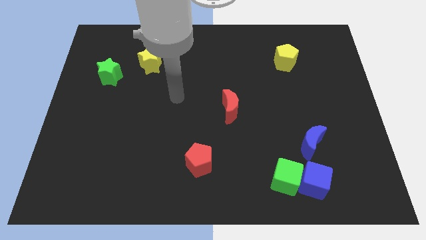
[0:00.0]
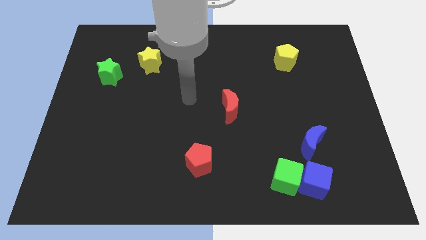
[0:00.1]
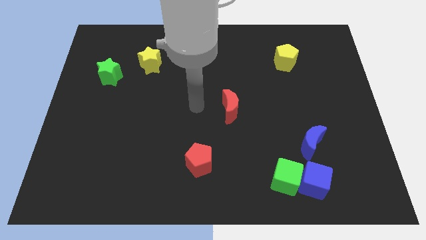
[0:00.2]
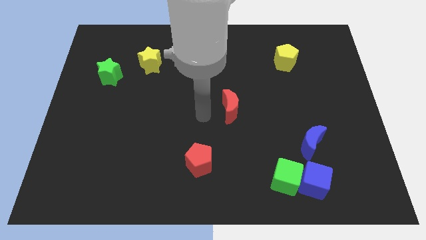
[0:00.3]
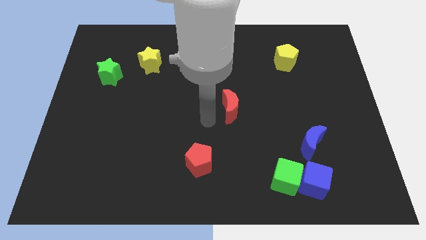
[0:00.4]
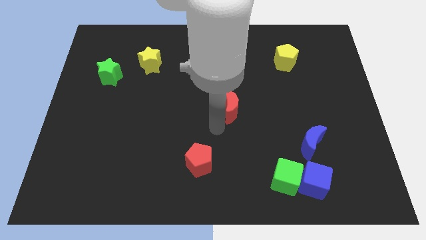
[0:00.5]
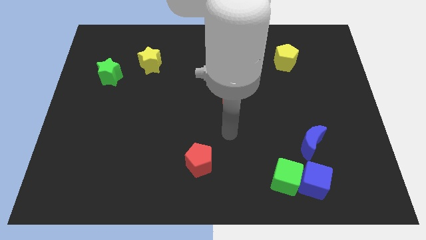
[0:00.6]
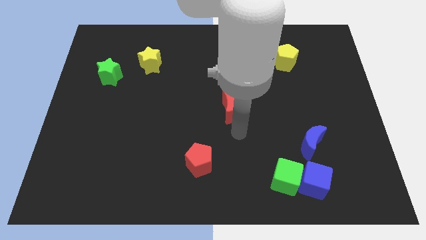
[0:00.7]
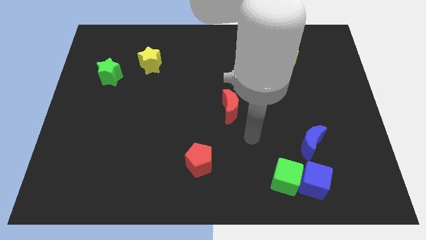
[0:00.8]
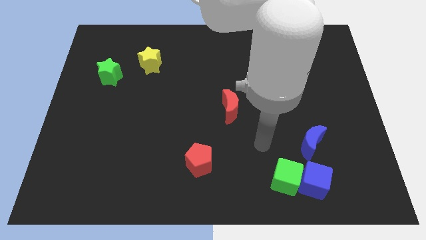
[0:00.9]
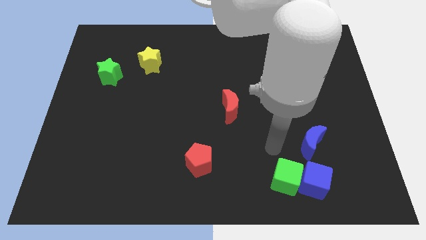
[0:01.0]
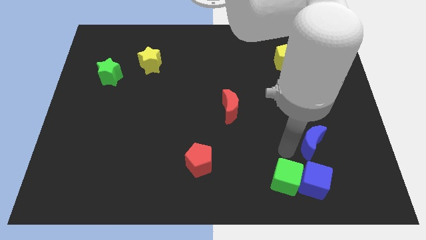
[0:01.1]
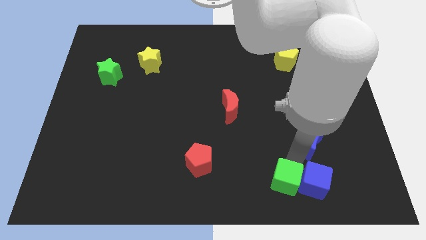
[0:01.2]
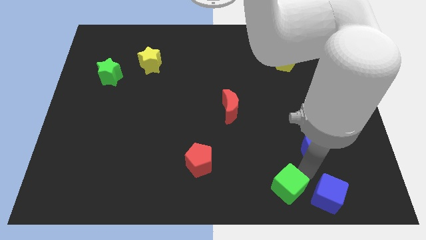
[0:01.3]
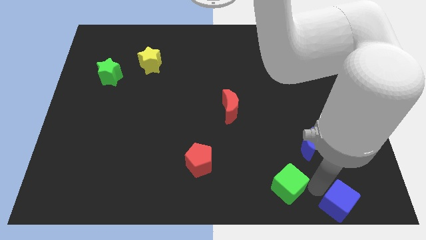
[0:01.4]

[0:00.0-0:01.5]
pull the green cube apart from the blue cube

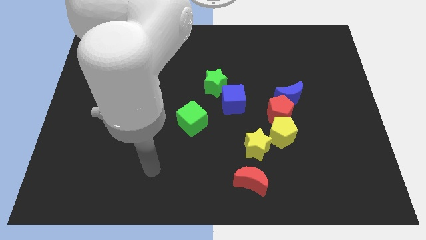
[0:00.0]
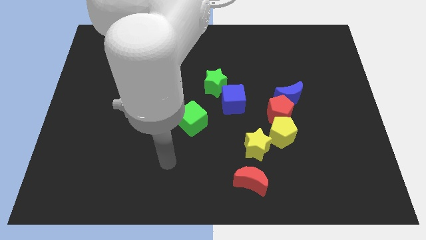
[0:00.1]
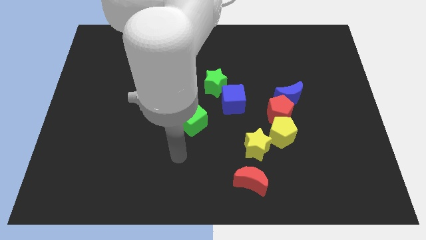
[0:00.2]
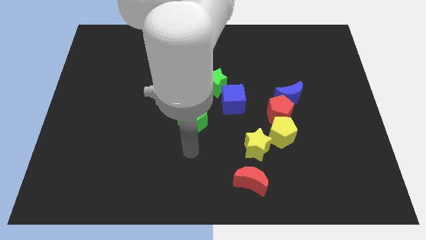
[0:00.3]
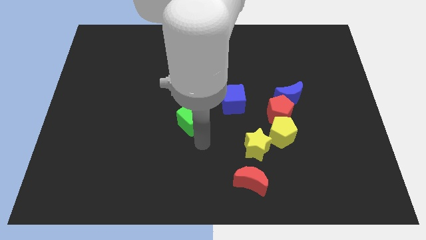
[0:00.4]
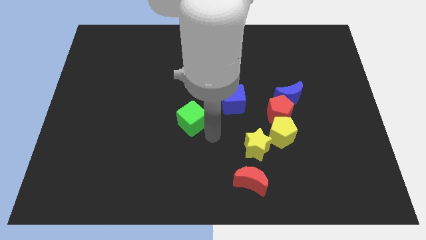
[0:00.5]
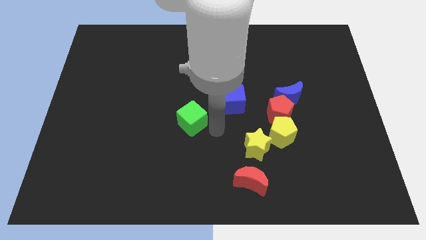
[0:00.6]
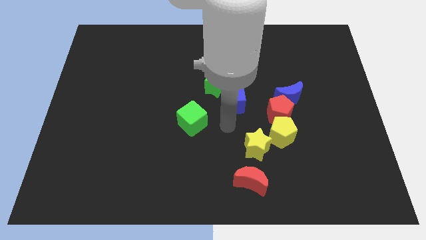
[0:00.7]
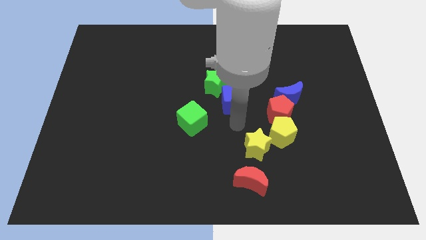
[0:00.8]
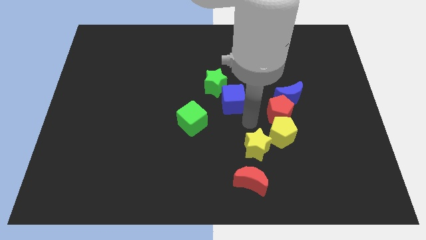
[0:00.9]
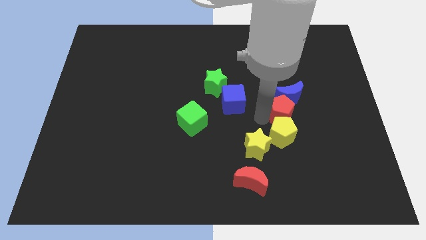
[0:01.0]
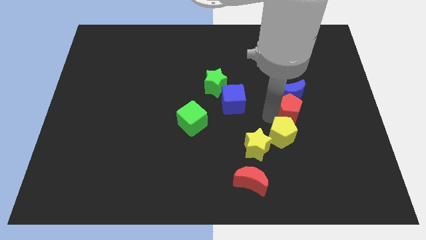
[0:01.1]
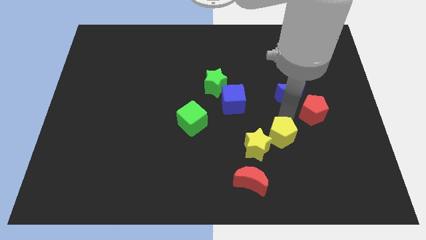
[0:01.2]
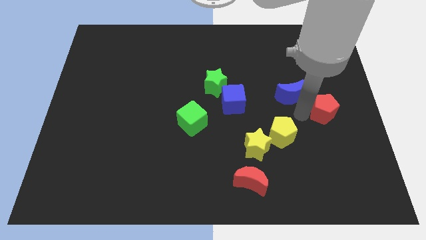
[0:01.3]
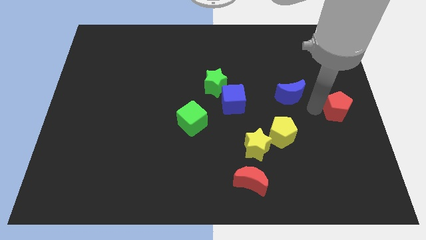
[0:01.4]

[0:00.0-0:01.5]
move the blue moon away from the red pentagon

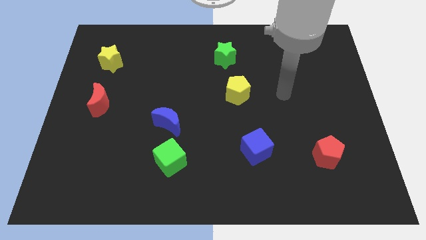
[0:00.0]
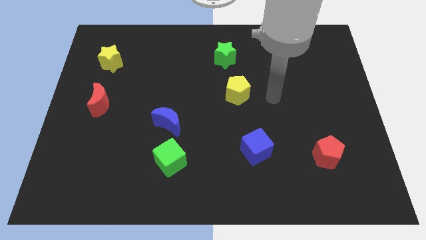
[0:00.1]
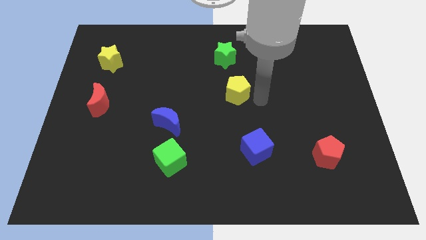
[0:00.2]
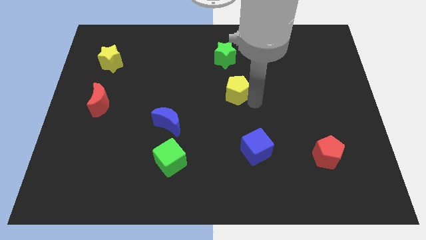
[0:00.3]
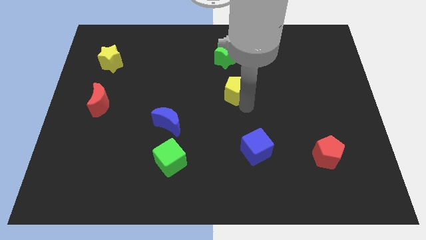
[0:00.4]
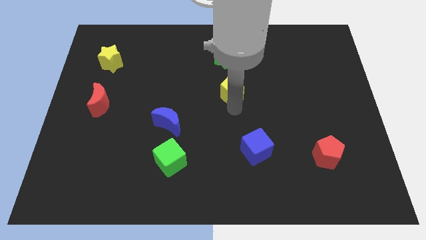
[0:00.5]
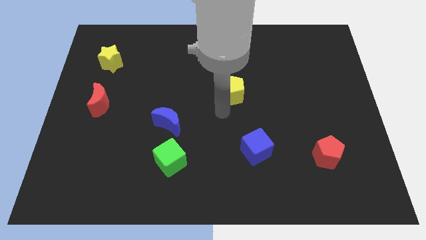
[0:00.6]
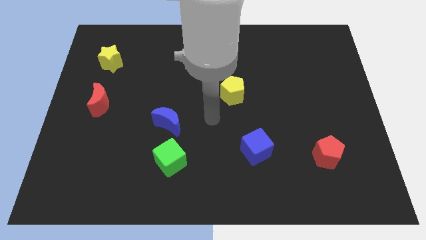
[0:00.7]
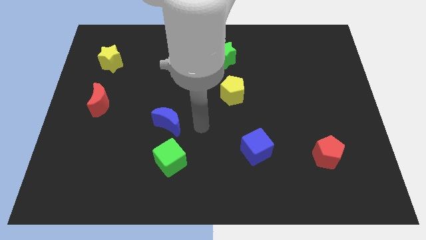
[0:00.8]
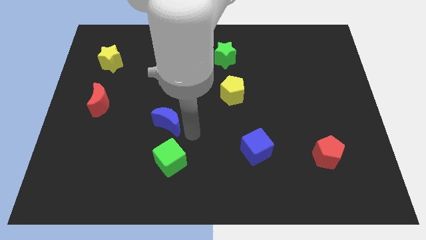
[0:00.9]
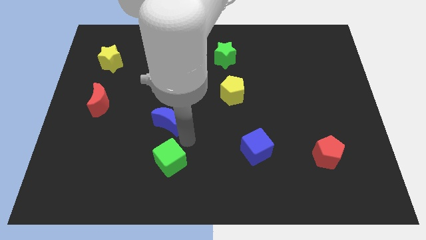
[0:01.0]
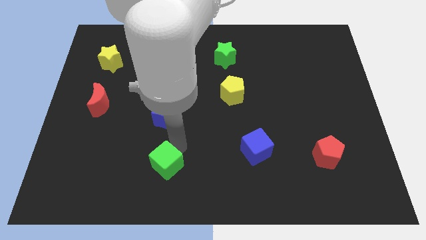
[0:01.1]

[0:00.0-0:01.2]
move the blue moon away from the green cube

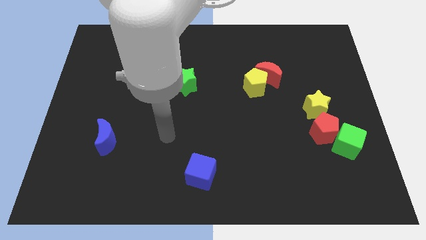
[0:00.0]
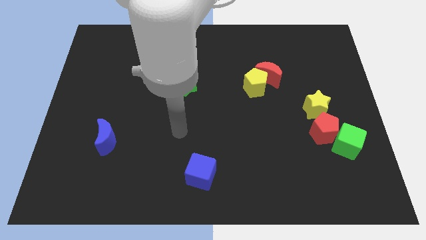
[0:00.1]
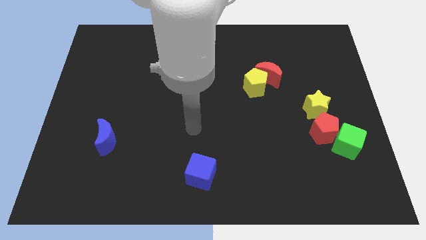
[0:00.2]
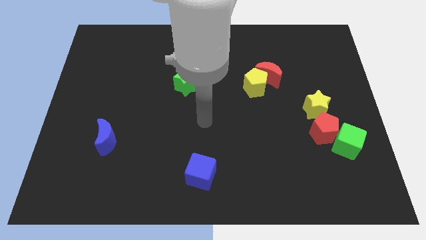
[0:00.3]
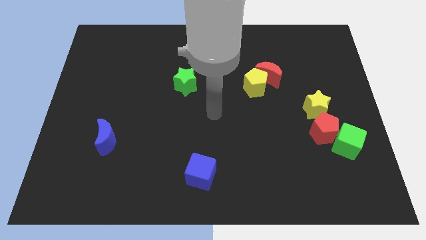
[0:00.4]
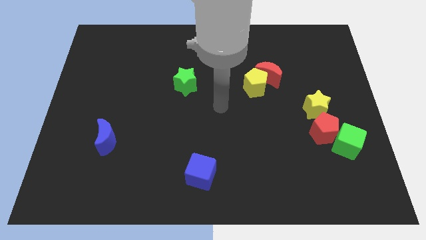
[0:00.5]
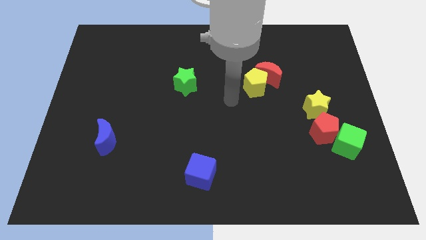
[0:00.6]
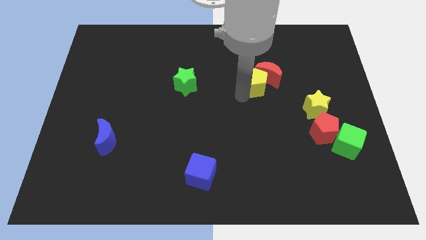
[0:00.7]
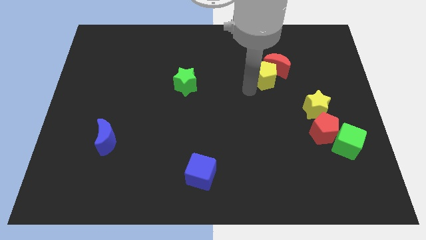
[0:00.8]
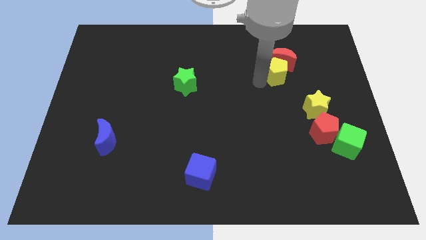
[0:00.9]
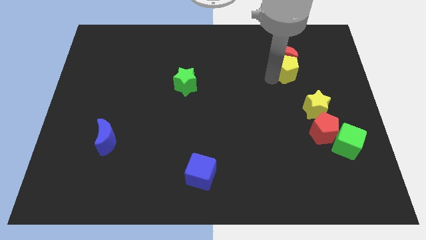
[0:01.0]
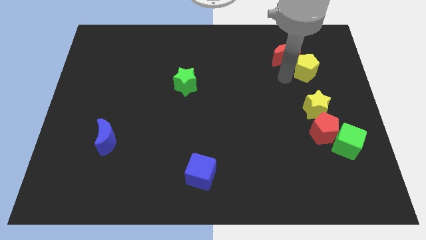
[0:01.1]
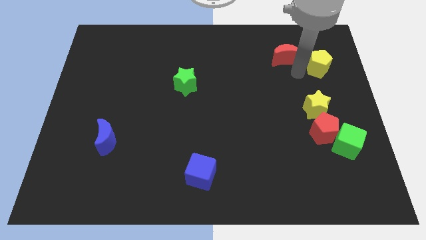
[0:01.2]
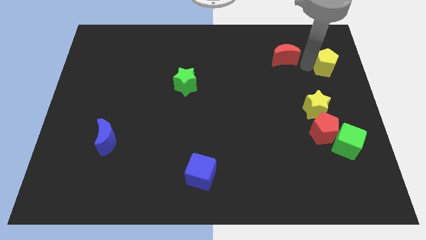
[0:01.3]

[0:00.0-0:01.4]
pull the red moon apart from the yellow pentagon

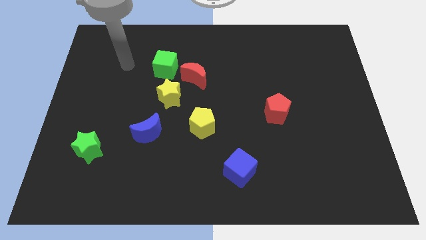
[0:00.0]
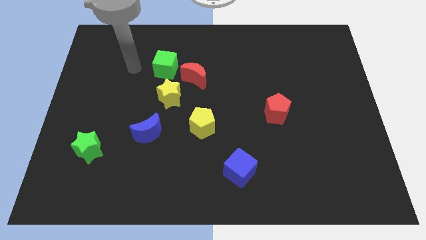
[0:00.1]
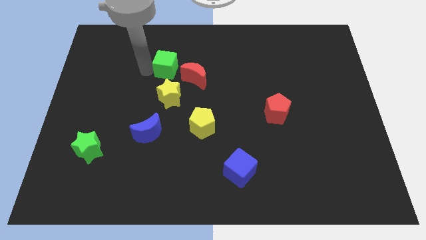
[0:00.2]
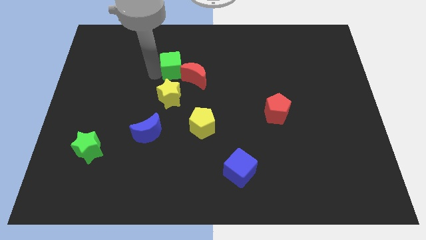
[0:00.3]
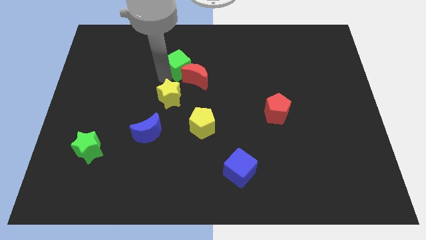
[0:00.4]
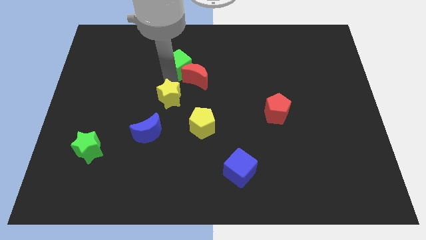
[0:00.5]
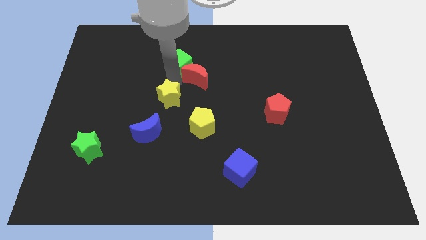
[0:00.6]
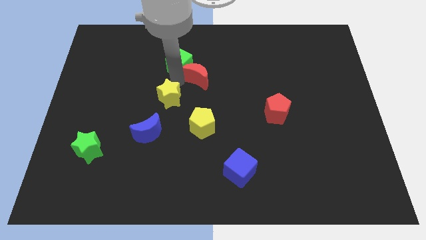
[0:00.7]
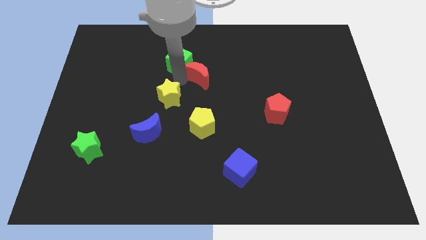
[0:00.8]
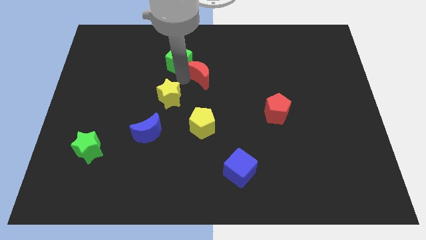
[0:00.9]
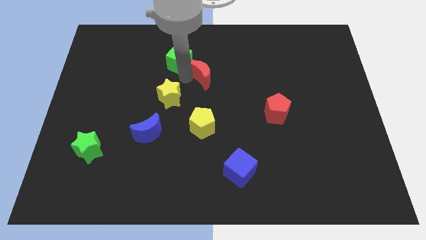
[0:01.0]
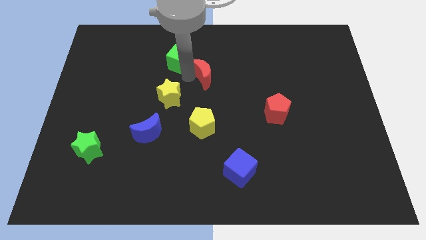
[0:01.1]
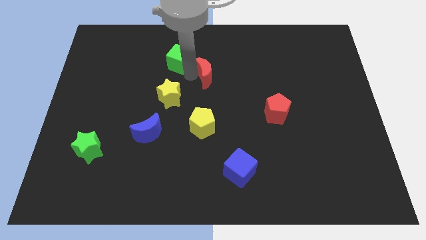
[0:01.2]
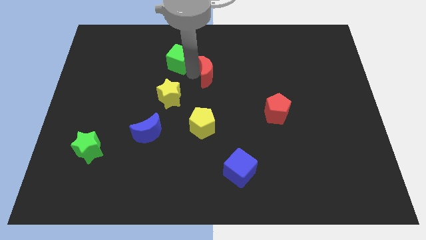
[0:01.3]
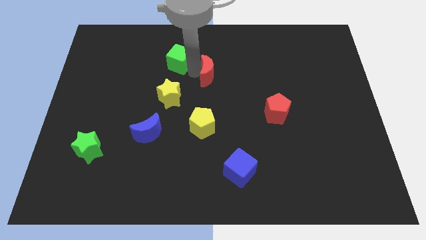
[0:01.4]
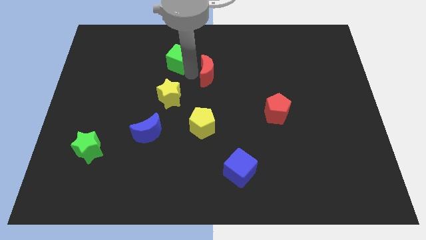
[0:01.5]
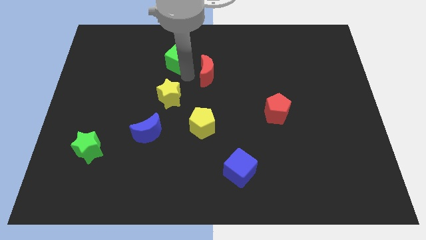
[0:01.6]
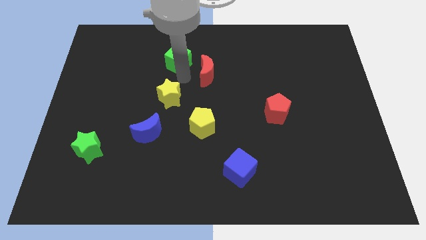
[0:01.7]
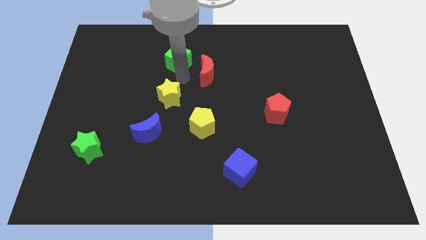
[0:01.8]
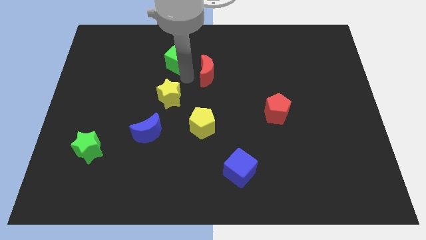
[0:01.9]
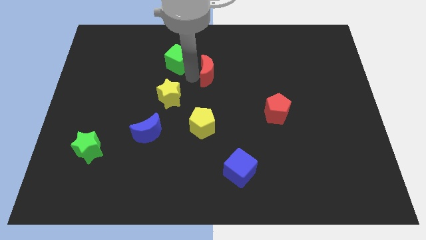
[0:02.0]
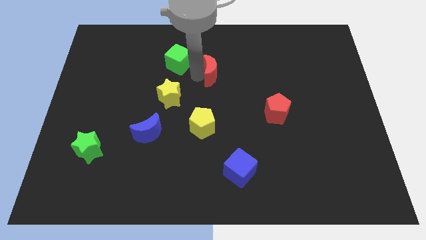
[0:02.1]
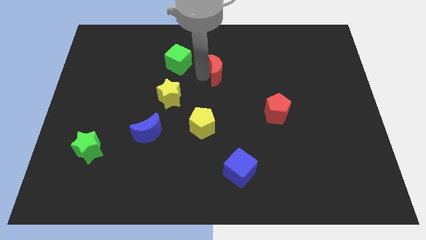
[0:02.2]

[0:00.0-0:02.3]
move the red moon away from the green cube and yellow star

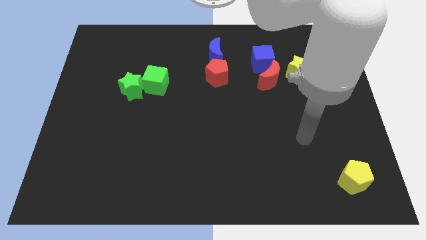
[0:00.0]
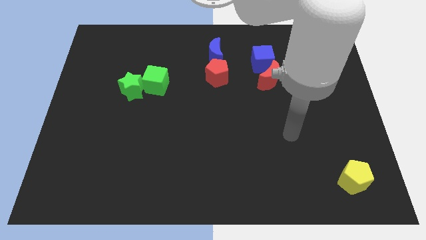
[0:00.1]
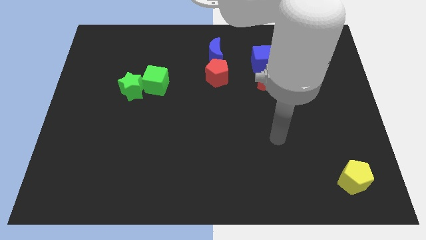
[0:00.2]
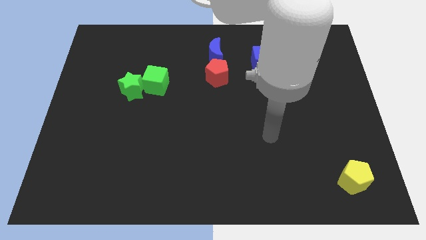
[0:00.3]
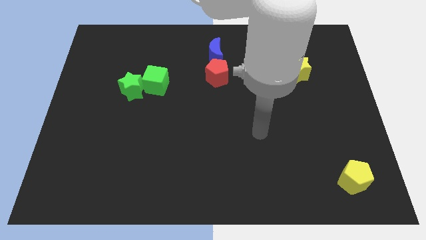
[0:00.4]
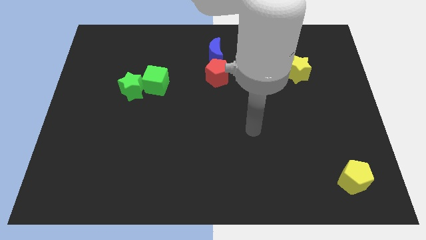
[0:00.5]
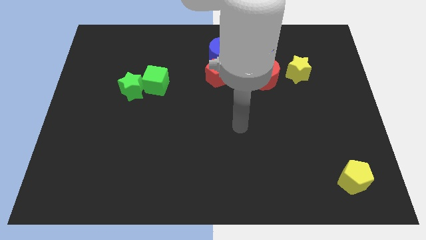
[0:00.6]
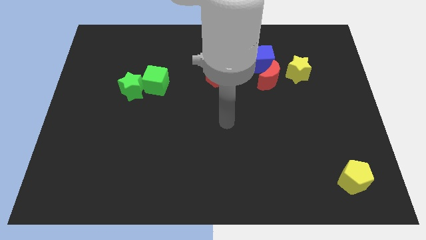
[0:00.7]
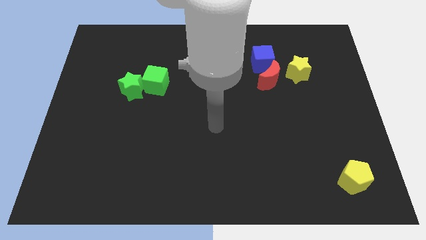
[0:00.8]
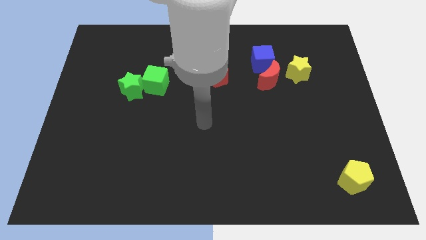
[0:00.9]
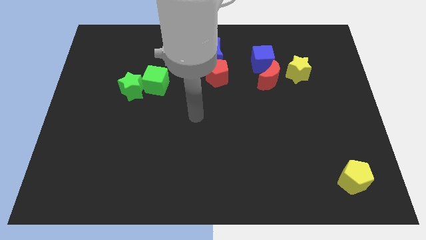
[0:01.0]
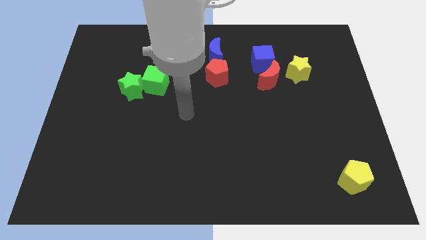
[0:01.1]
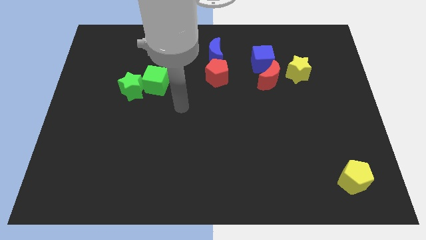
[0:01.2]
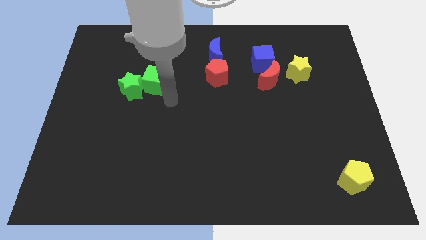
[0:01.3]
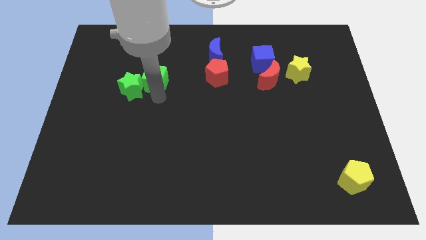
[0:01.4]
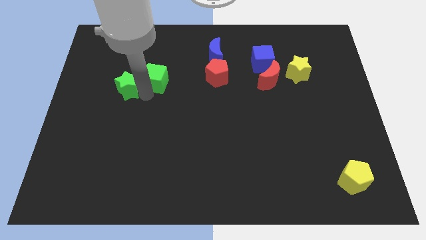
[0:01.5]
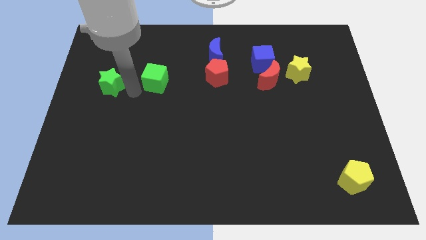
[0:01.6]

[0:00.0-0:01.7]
move the green cube away from the green star
